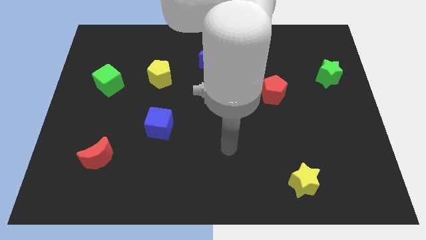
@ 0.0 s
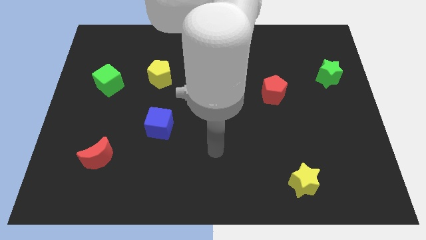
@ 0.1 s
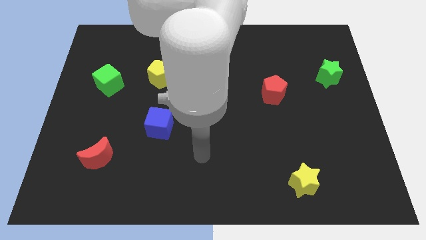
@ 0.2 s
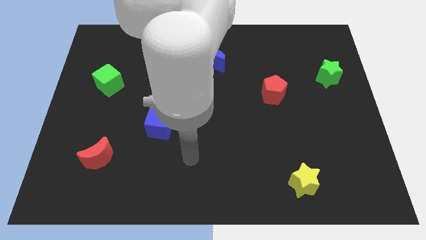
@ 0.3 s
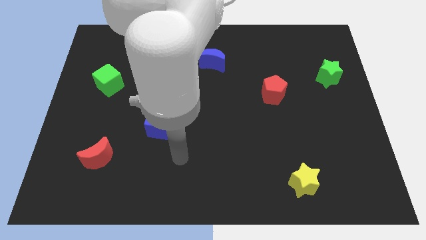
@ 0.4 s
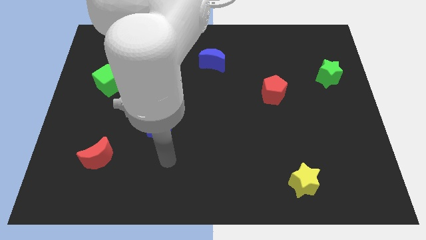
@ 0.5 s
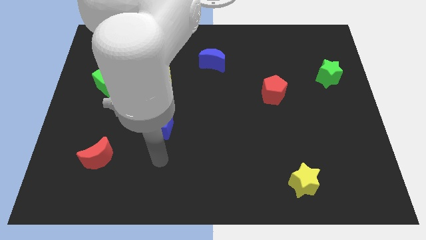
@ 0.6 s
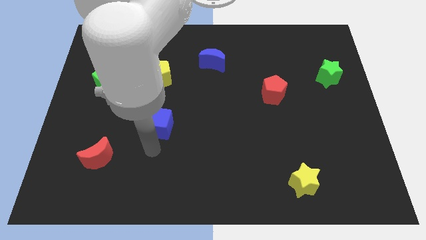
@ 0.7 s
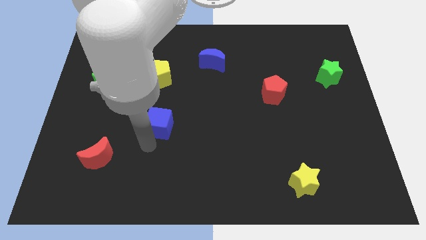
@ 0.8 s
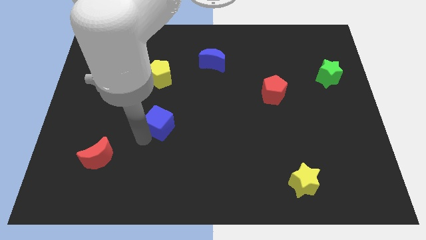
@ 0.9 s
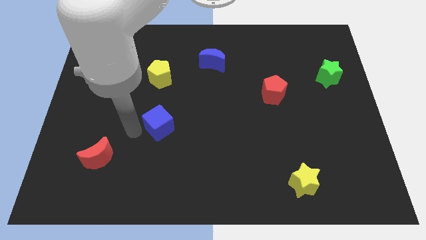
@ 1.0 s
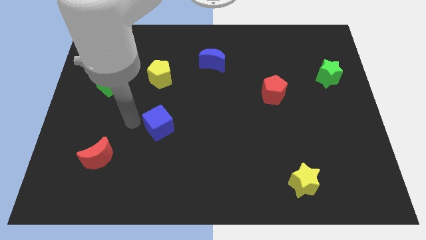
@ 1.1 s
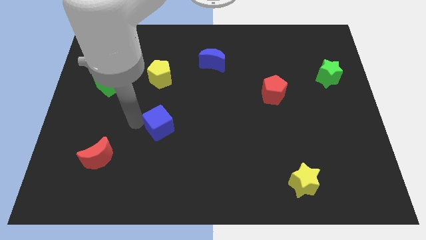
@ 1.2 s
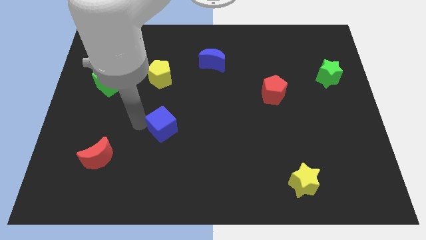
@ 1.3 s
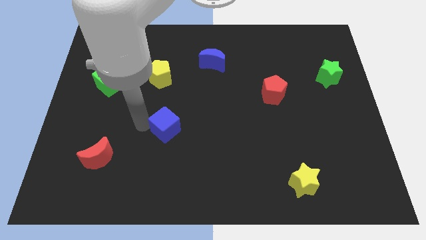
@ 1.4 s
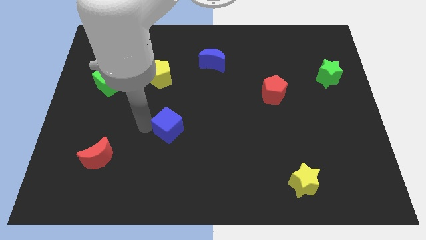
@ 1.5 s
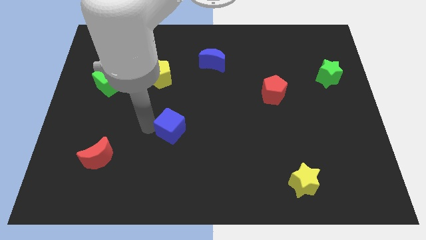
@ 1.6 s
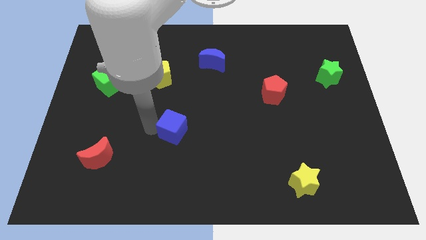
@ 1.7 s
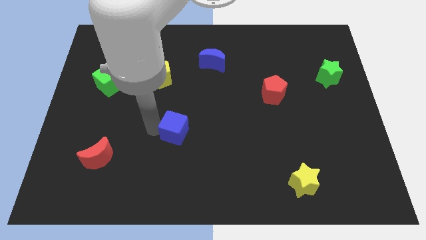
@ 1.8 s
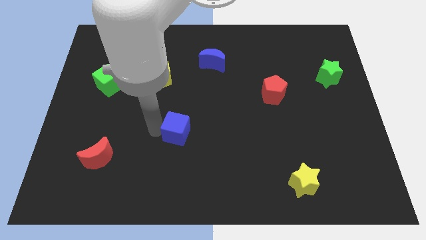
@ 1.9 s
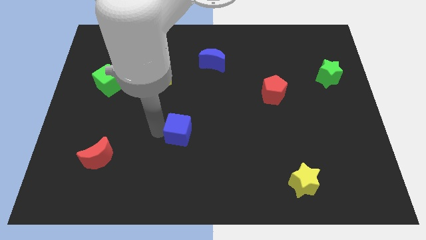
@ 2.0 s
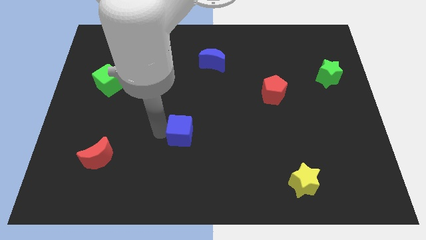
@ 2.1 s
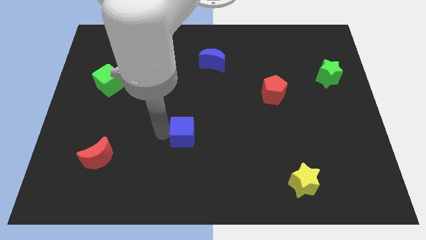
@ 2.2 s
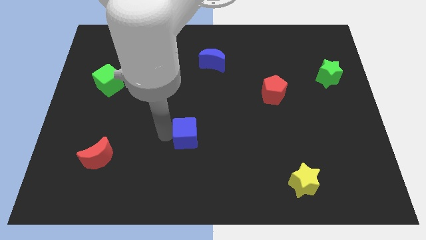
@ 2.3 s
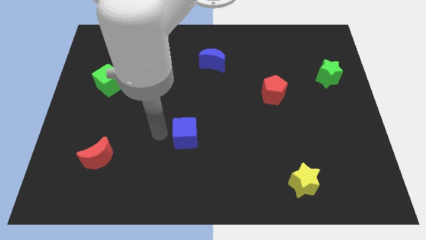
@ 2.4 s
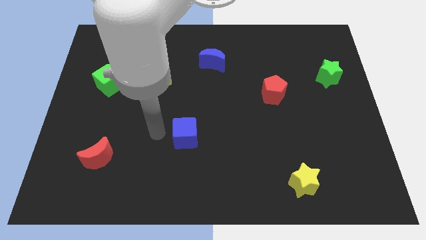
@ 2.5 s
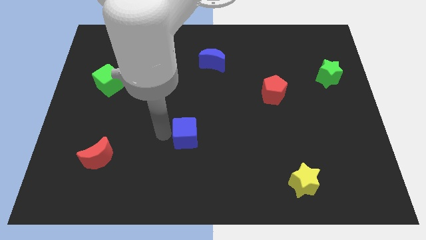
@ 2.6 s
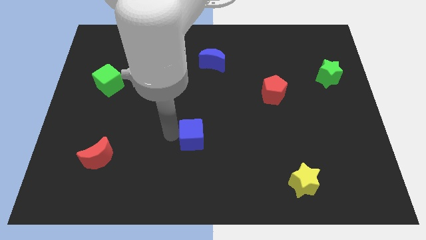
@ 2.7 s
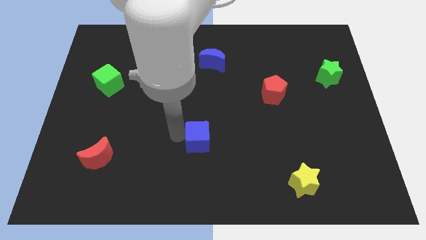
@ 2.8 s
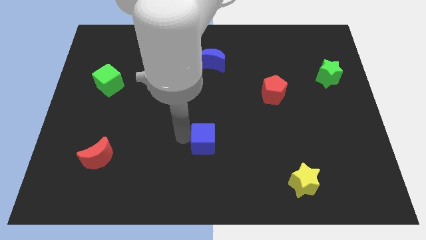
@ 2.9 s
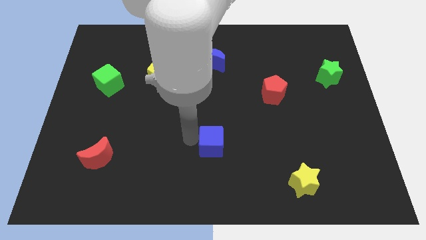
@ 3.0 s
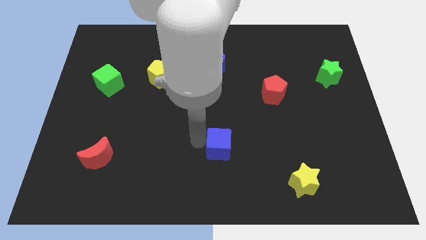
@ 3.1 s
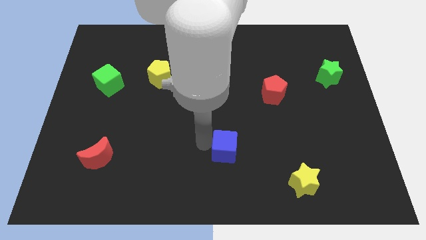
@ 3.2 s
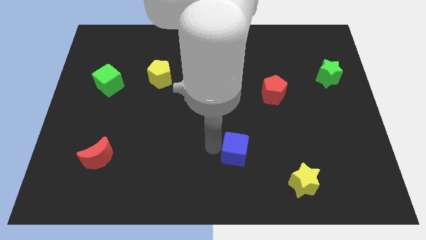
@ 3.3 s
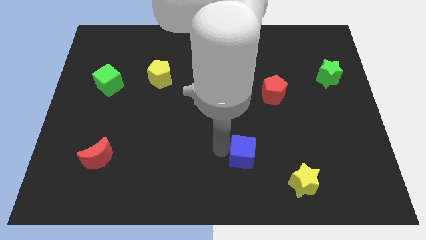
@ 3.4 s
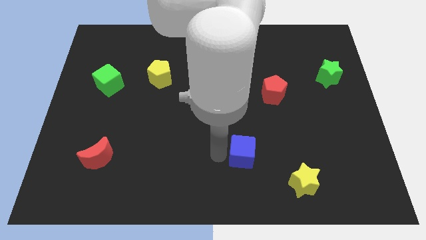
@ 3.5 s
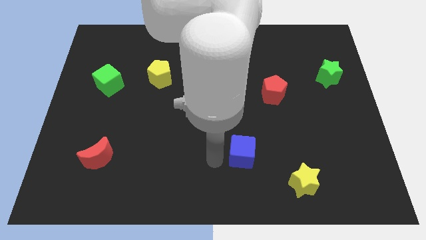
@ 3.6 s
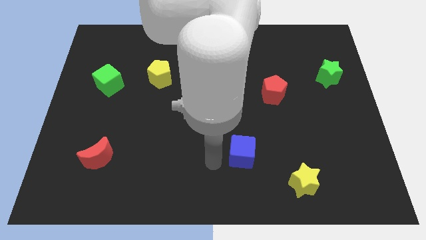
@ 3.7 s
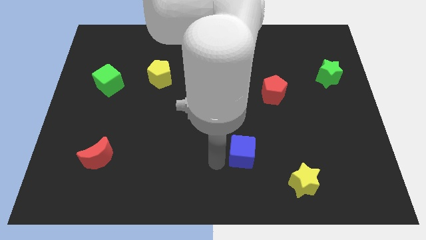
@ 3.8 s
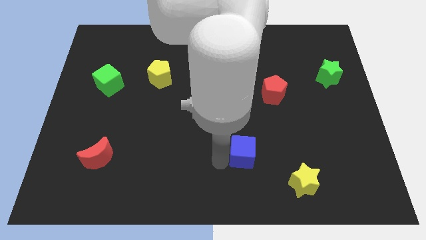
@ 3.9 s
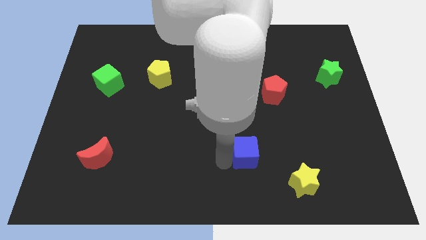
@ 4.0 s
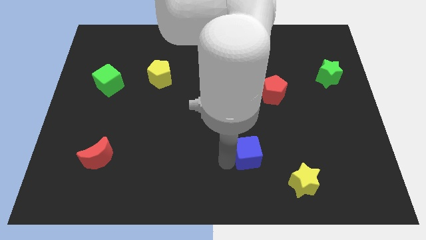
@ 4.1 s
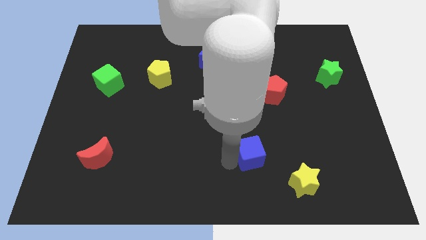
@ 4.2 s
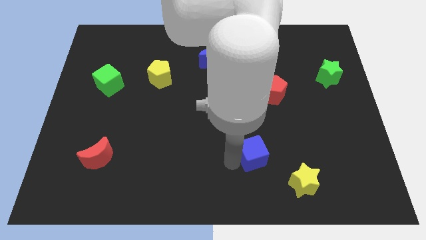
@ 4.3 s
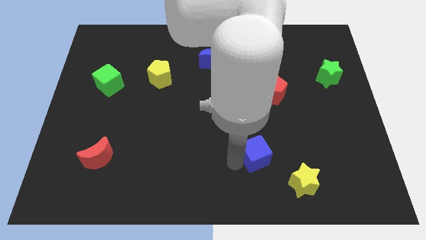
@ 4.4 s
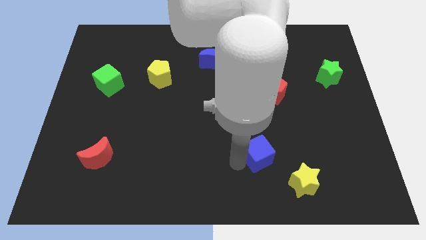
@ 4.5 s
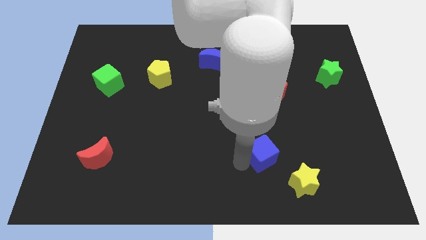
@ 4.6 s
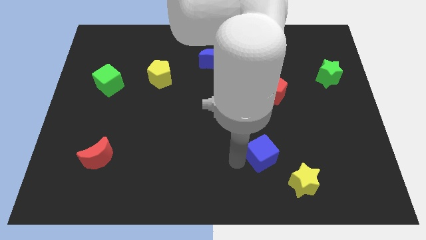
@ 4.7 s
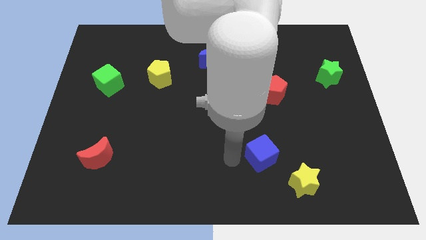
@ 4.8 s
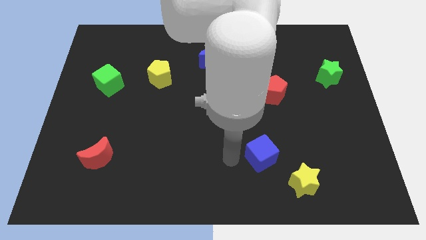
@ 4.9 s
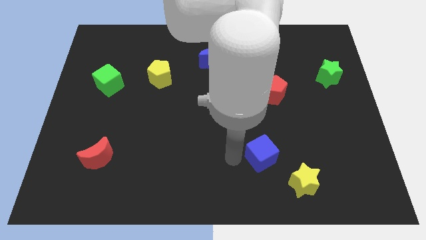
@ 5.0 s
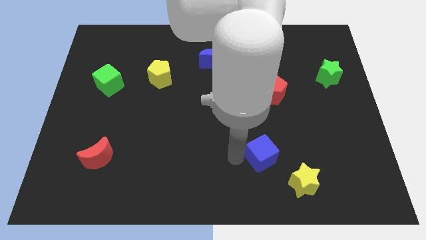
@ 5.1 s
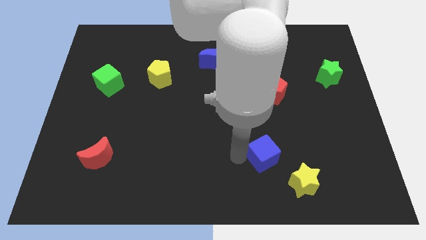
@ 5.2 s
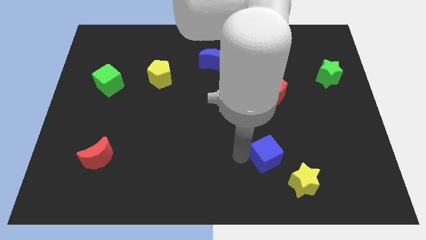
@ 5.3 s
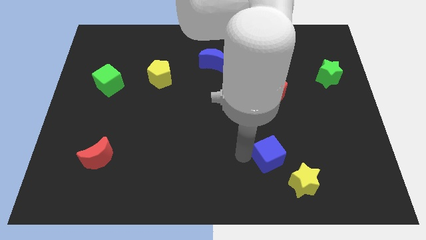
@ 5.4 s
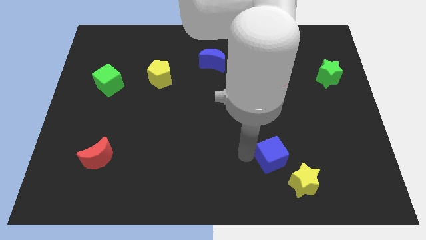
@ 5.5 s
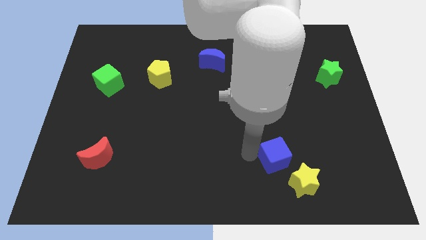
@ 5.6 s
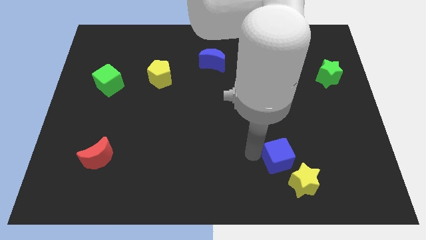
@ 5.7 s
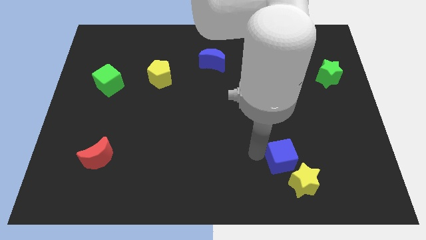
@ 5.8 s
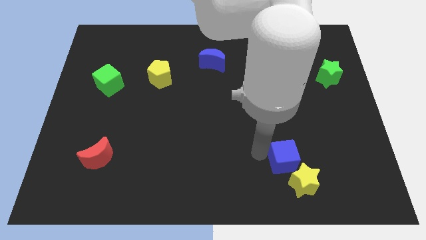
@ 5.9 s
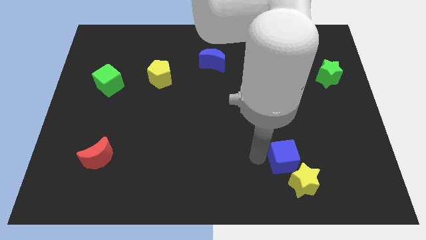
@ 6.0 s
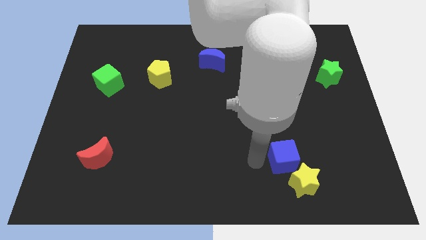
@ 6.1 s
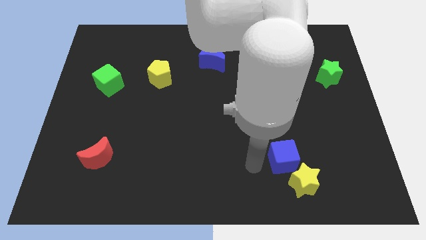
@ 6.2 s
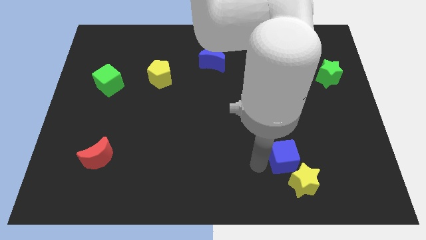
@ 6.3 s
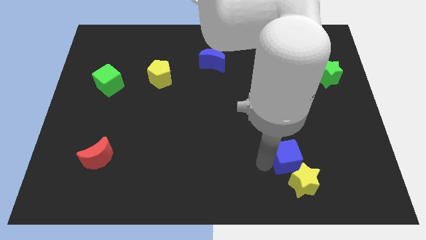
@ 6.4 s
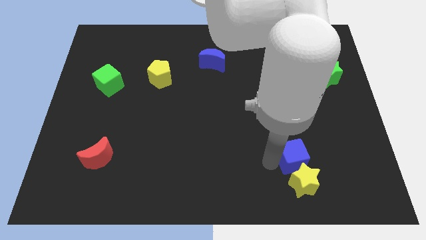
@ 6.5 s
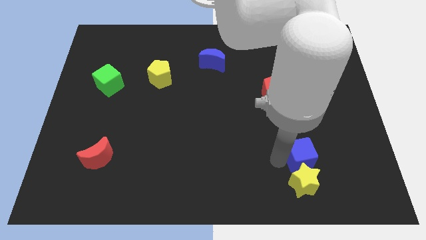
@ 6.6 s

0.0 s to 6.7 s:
move the blue cube to the top right side of the yellow star
